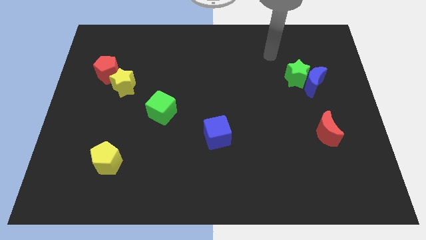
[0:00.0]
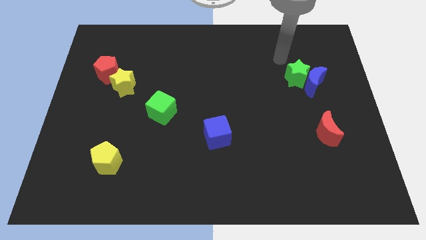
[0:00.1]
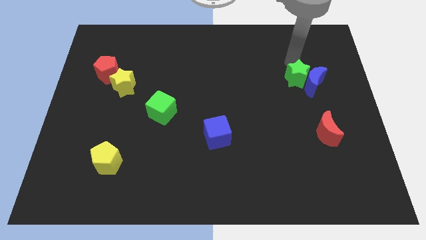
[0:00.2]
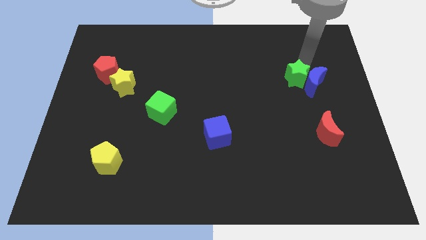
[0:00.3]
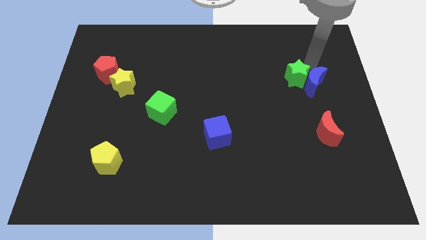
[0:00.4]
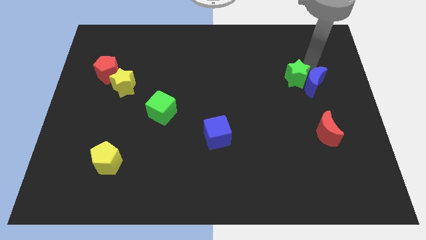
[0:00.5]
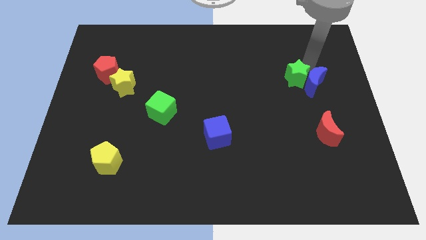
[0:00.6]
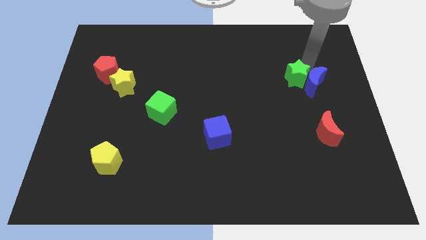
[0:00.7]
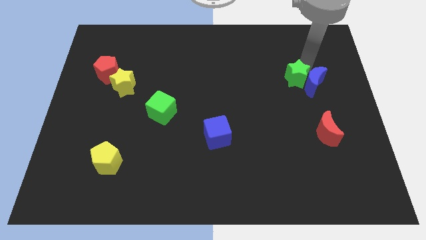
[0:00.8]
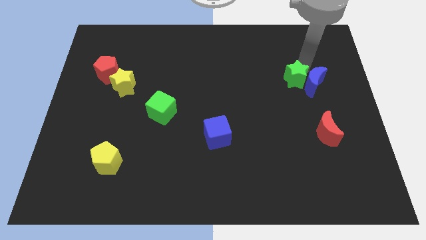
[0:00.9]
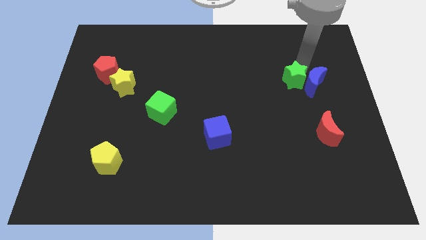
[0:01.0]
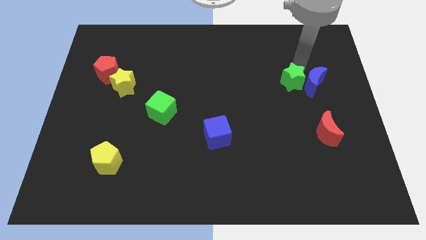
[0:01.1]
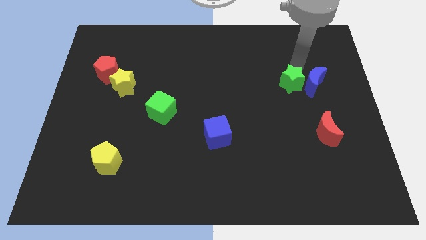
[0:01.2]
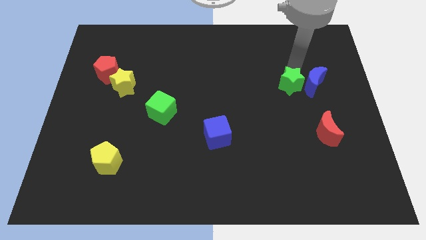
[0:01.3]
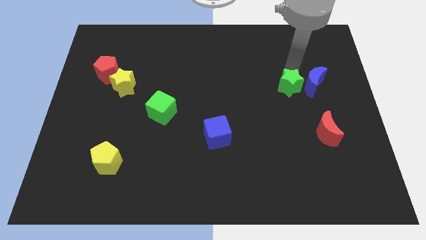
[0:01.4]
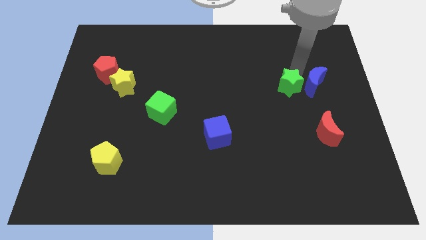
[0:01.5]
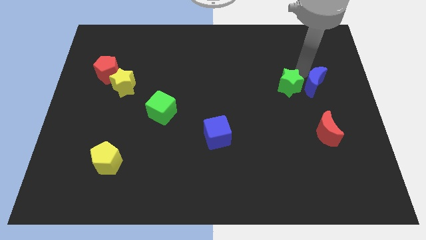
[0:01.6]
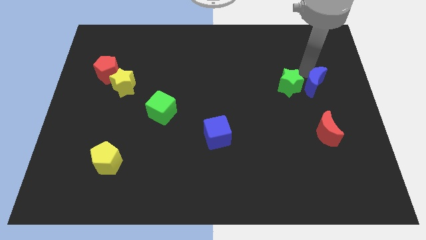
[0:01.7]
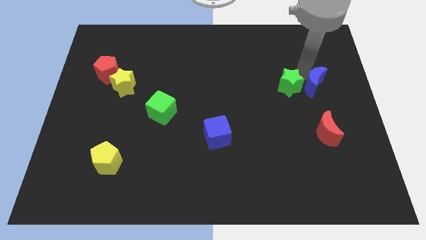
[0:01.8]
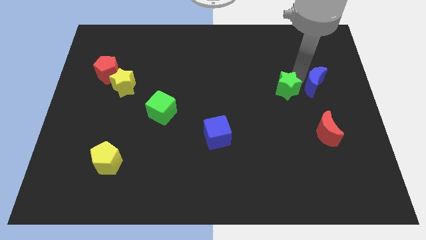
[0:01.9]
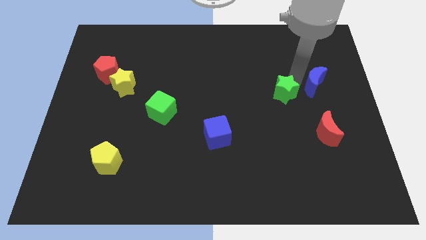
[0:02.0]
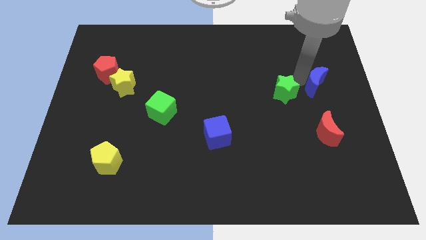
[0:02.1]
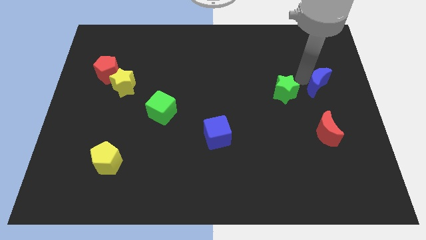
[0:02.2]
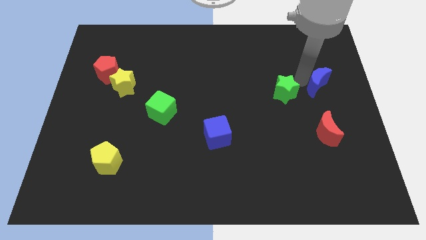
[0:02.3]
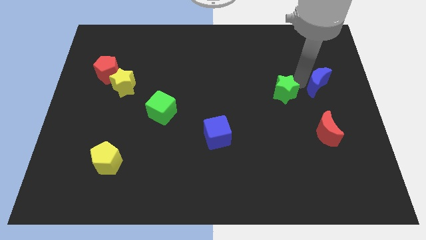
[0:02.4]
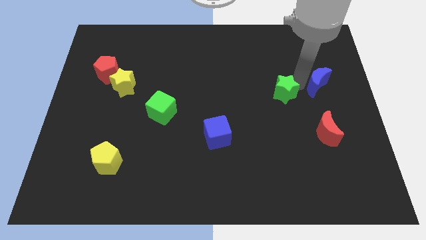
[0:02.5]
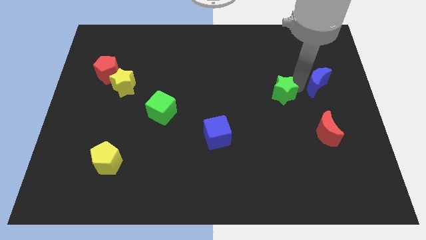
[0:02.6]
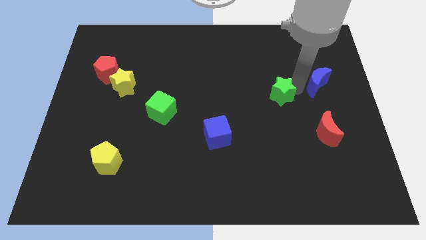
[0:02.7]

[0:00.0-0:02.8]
push the green star diagonally down and to the left a bit

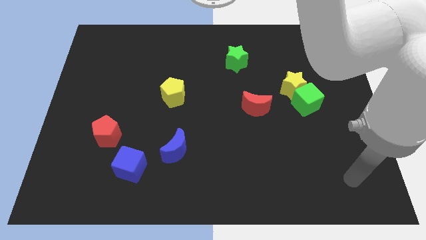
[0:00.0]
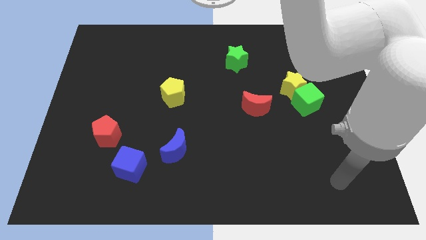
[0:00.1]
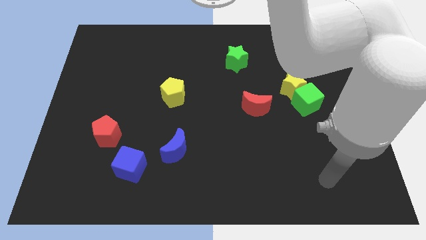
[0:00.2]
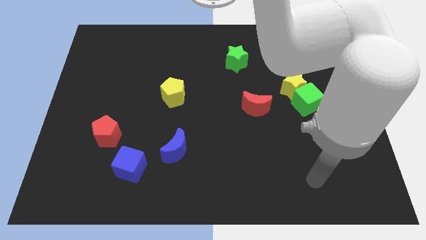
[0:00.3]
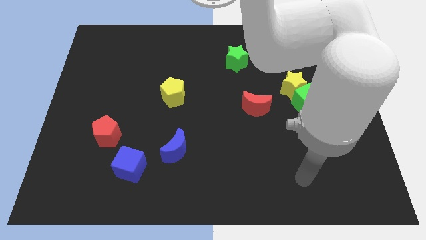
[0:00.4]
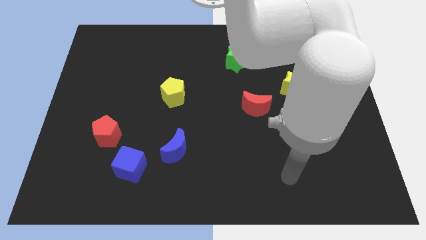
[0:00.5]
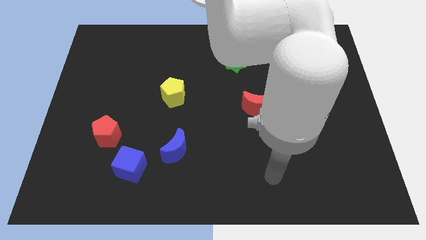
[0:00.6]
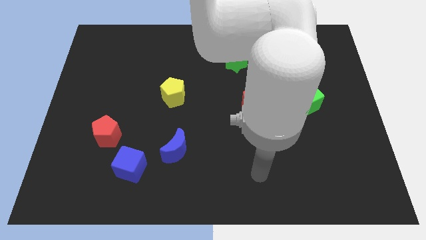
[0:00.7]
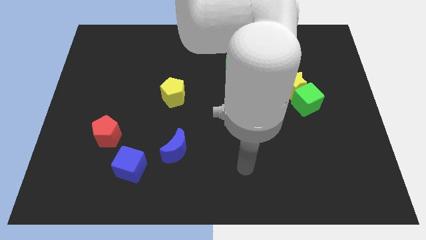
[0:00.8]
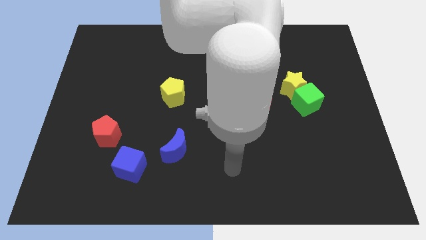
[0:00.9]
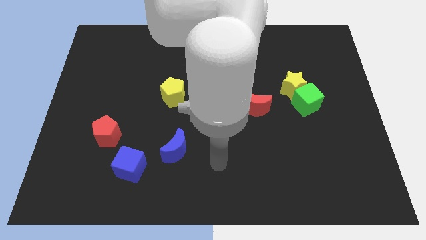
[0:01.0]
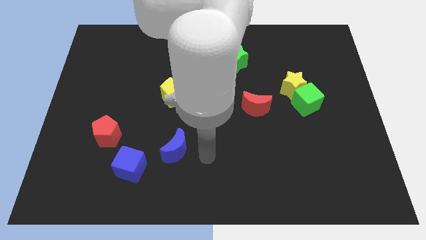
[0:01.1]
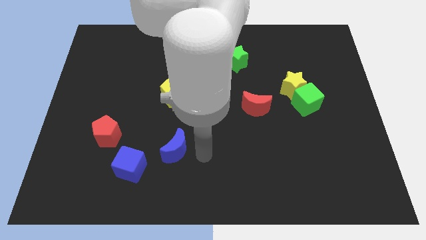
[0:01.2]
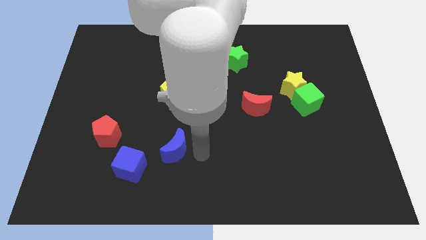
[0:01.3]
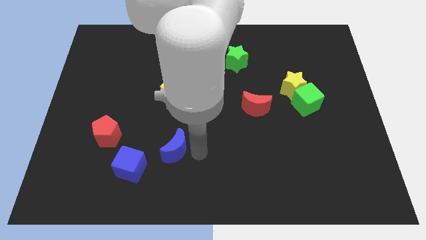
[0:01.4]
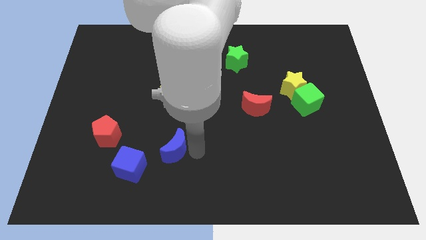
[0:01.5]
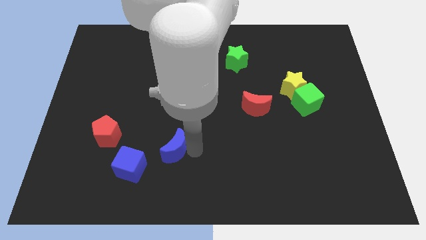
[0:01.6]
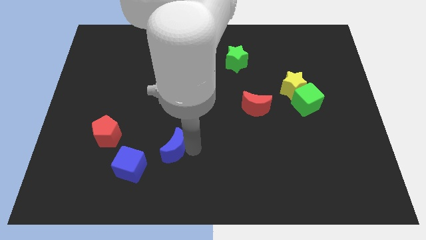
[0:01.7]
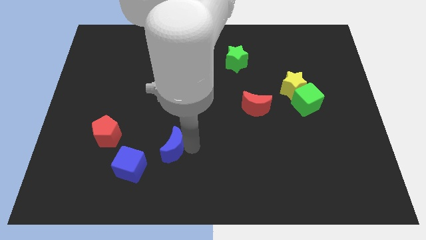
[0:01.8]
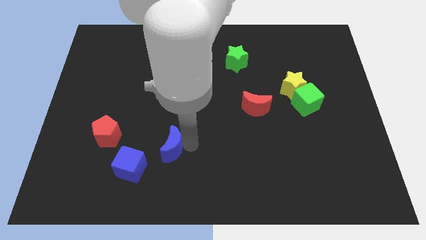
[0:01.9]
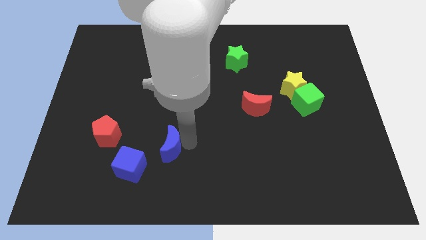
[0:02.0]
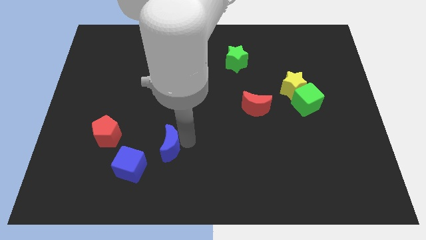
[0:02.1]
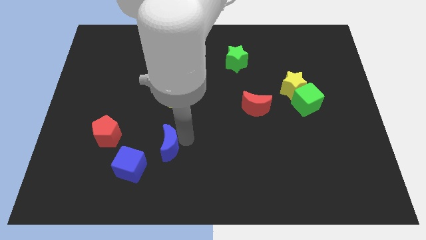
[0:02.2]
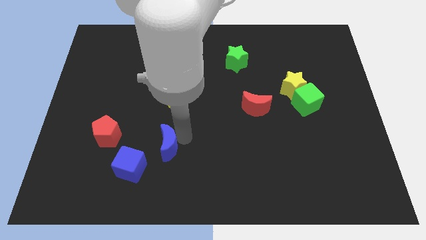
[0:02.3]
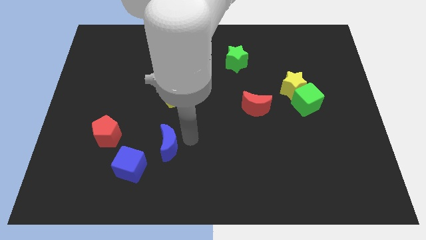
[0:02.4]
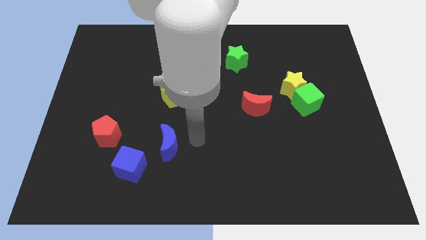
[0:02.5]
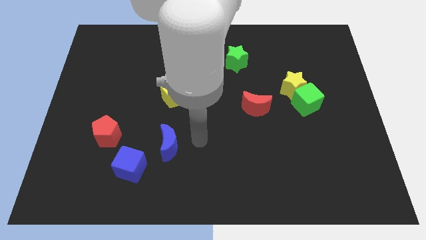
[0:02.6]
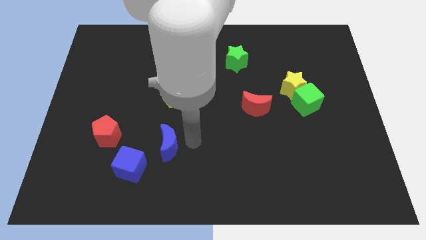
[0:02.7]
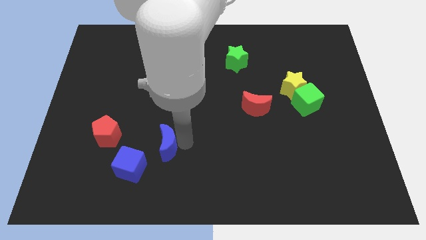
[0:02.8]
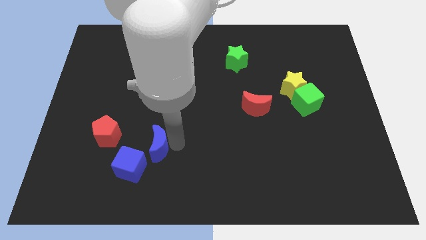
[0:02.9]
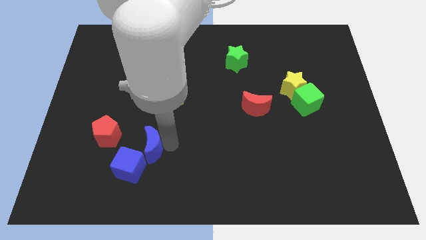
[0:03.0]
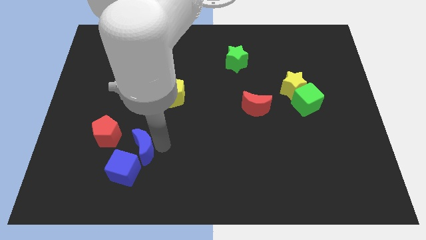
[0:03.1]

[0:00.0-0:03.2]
slightly slide the blue moon to the left

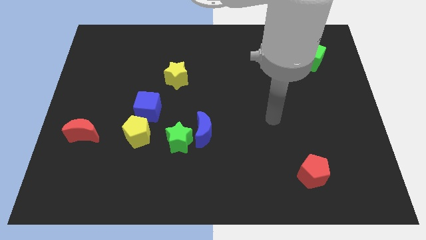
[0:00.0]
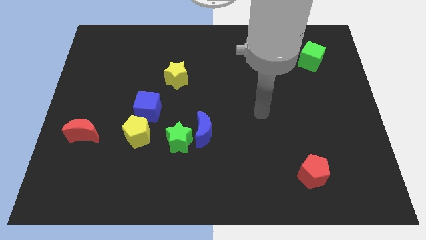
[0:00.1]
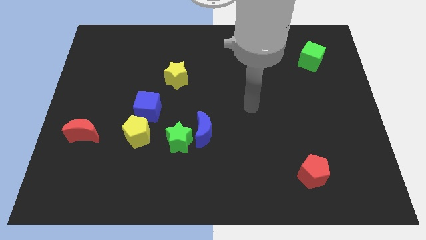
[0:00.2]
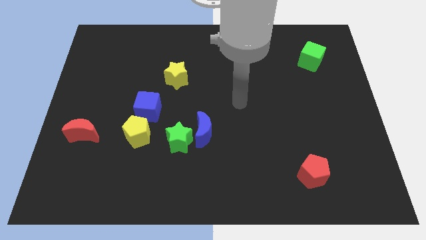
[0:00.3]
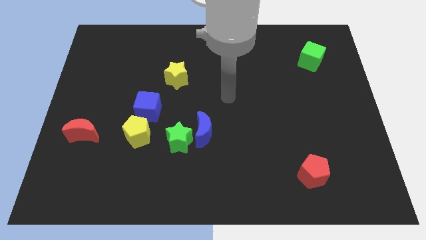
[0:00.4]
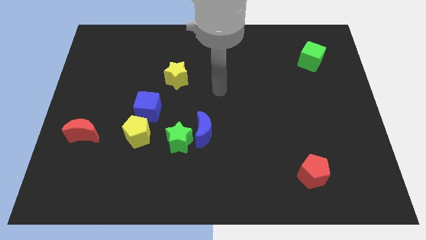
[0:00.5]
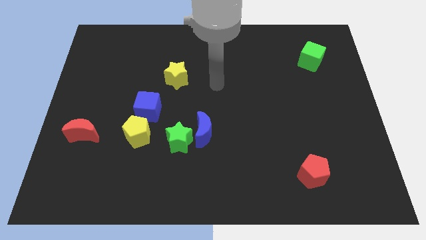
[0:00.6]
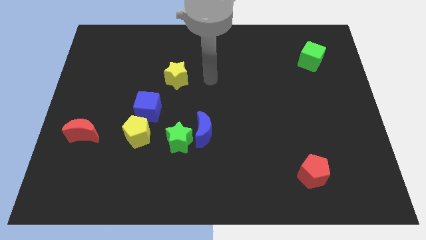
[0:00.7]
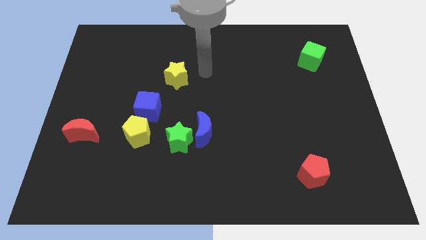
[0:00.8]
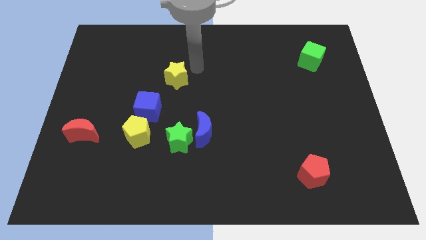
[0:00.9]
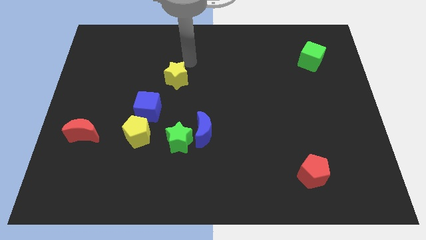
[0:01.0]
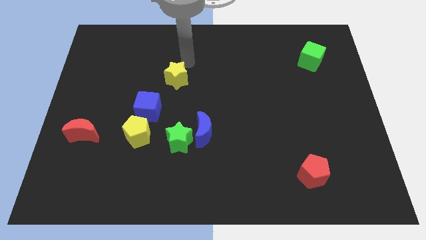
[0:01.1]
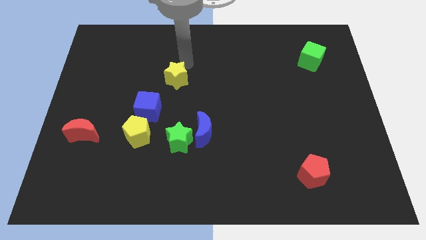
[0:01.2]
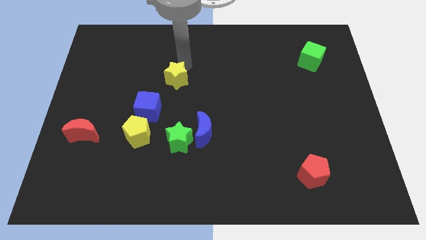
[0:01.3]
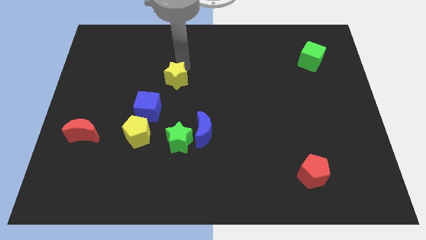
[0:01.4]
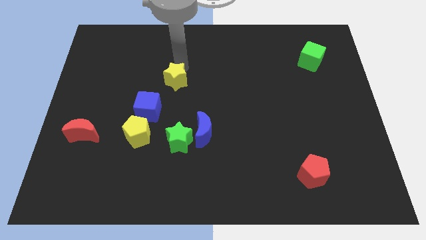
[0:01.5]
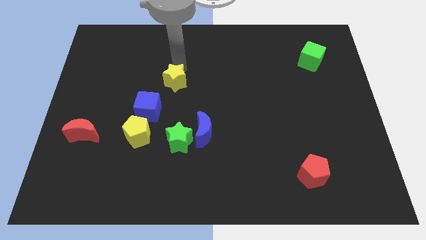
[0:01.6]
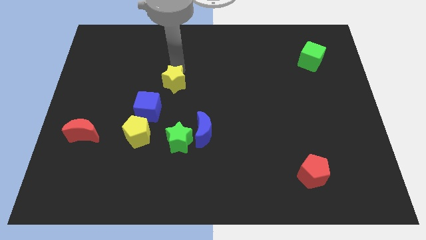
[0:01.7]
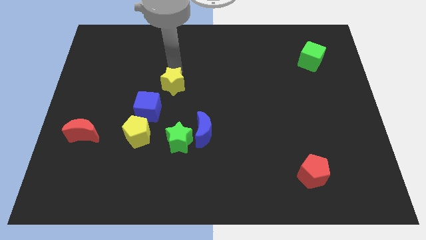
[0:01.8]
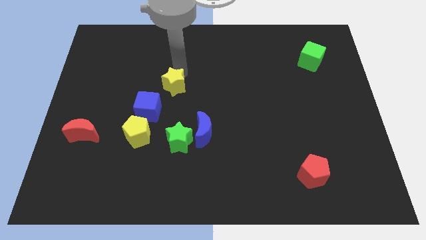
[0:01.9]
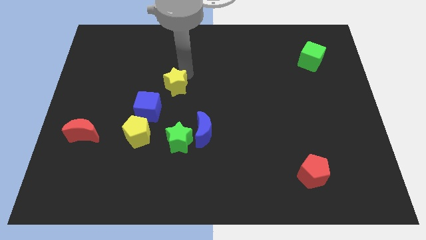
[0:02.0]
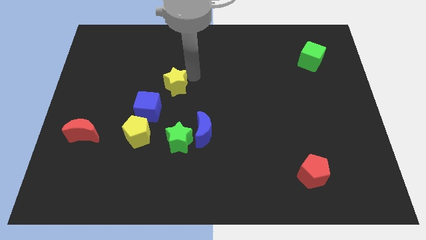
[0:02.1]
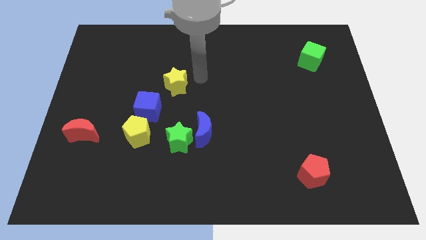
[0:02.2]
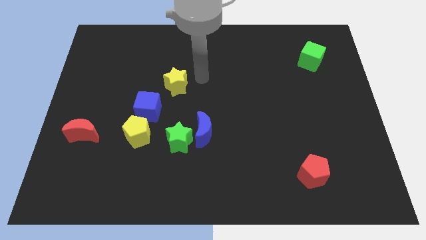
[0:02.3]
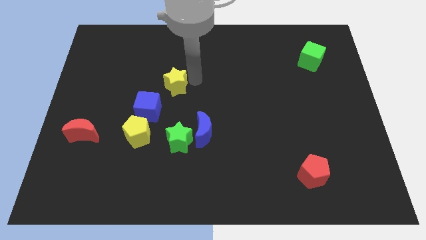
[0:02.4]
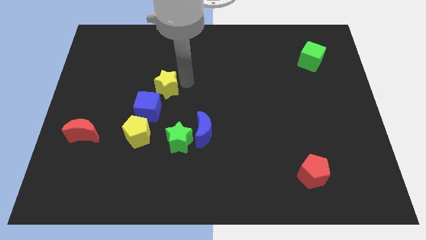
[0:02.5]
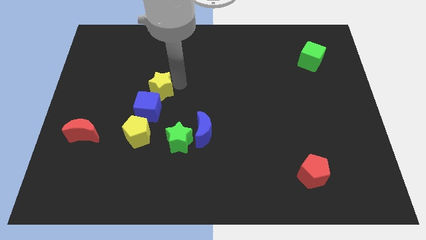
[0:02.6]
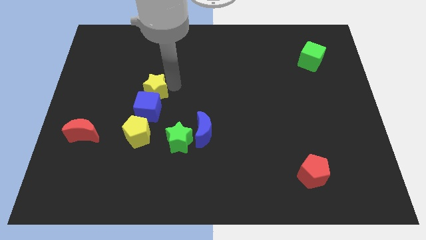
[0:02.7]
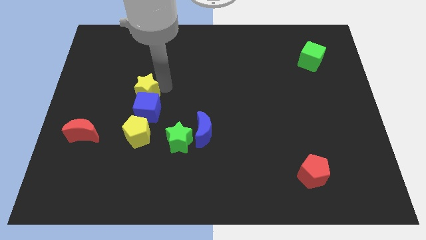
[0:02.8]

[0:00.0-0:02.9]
move the yellow star a little bit diagonally down and to the left
